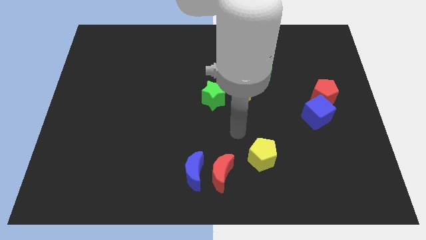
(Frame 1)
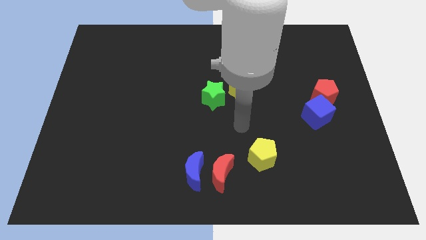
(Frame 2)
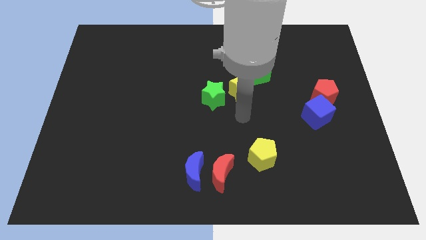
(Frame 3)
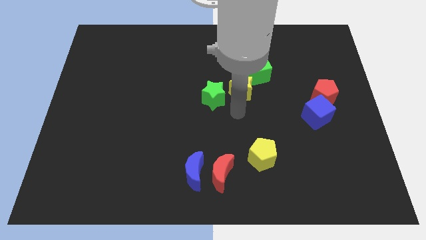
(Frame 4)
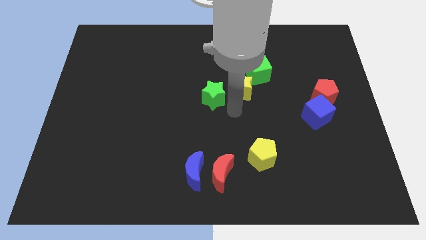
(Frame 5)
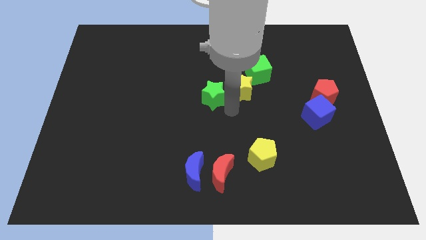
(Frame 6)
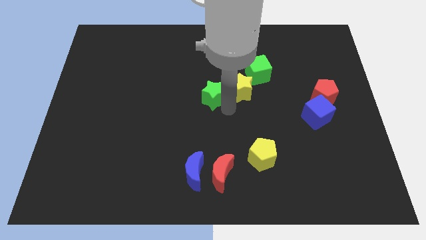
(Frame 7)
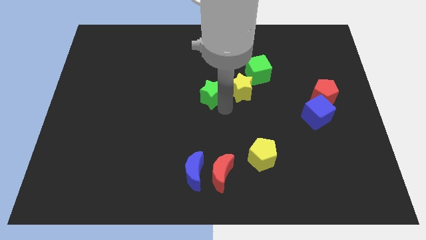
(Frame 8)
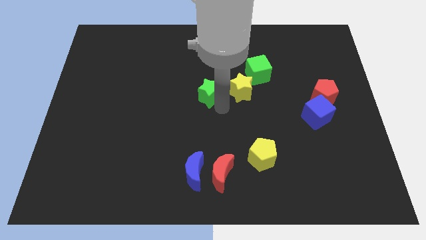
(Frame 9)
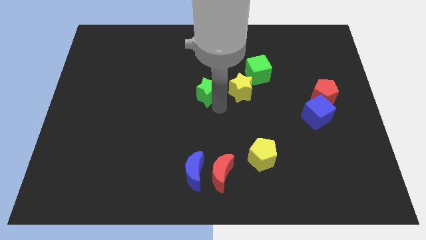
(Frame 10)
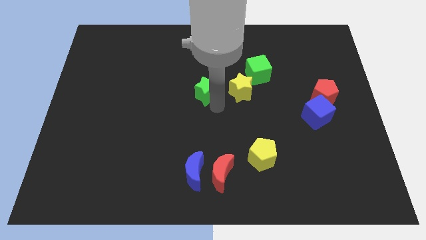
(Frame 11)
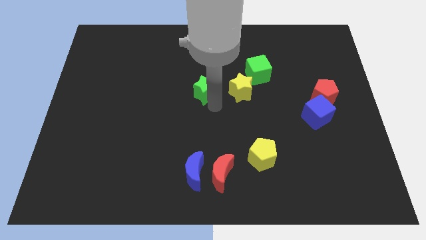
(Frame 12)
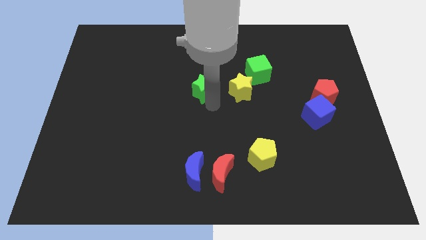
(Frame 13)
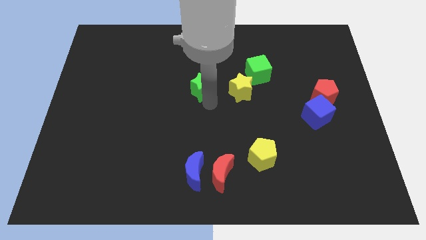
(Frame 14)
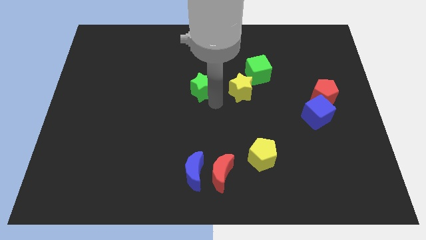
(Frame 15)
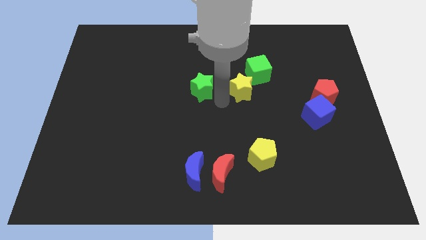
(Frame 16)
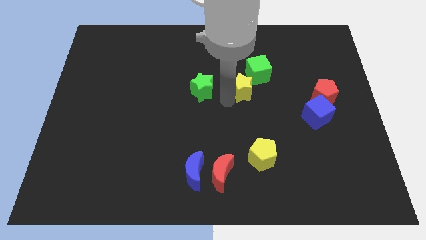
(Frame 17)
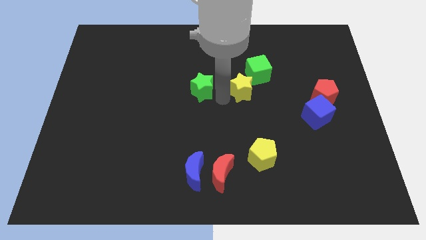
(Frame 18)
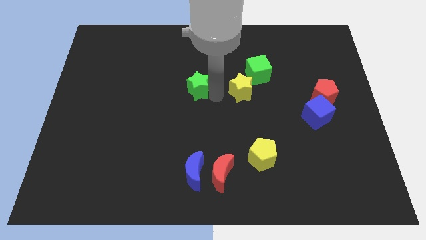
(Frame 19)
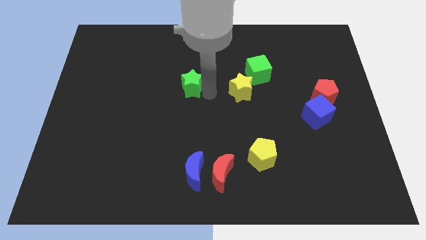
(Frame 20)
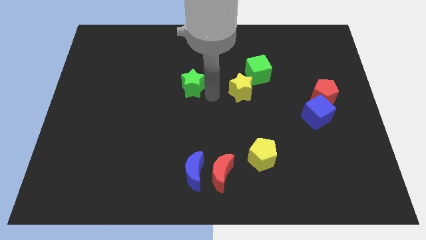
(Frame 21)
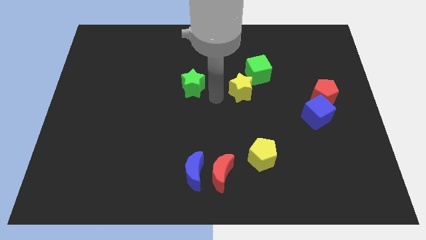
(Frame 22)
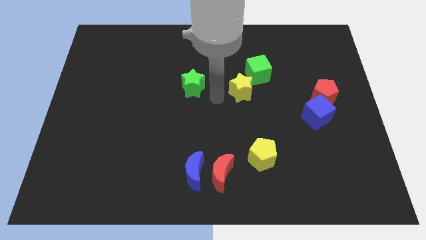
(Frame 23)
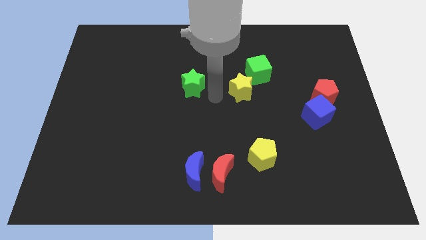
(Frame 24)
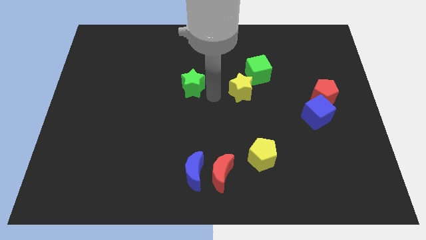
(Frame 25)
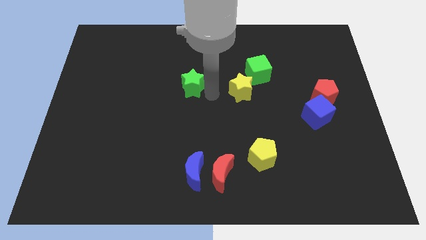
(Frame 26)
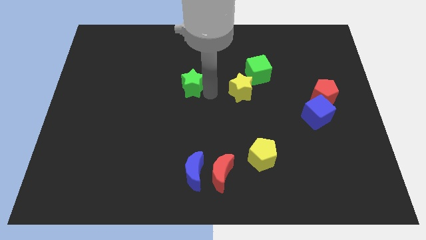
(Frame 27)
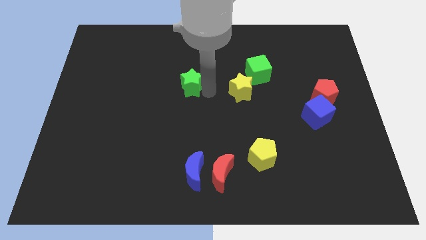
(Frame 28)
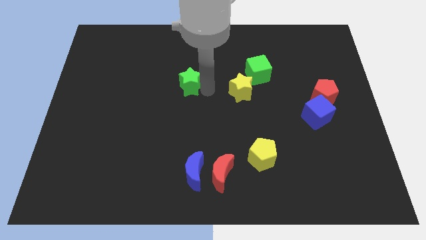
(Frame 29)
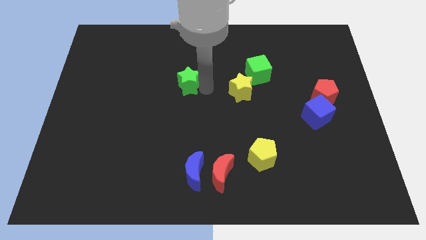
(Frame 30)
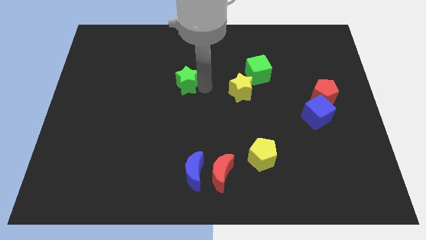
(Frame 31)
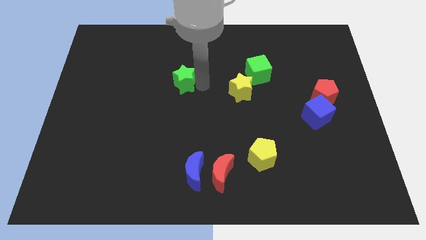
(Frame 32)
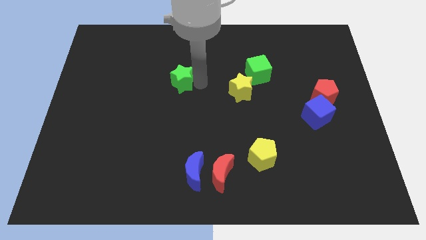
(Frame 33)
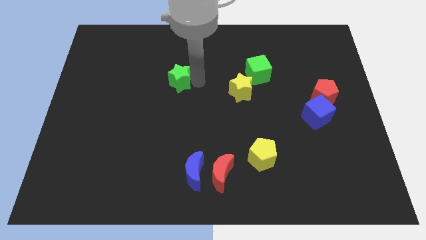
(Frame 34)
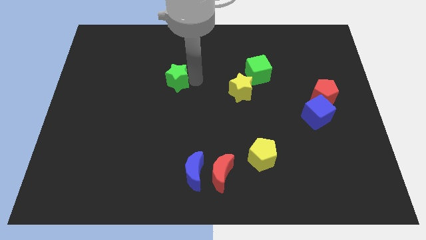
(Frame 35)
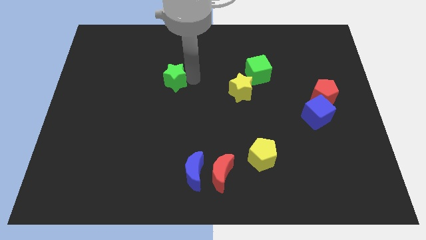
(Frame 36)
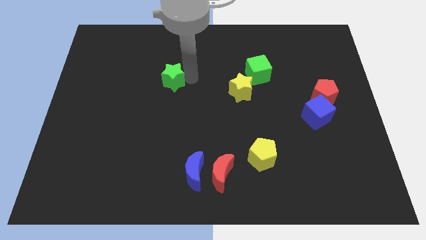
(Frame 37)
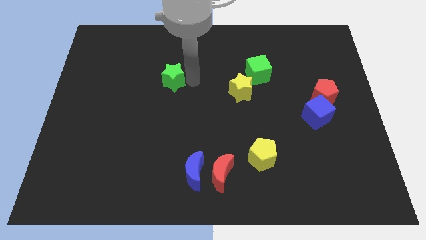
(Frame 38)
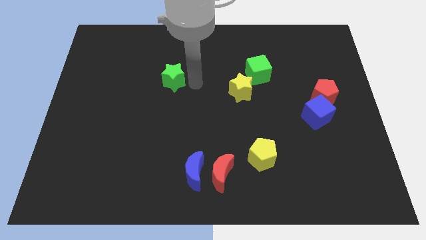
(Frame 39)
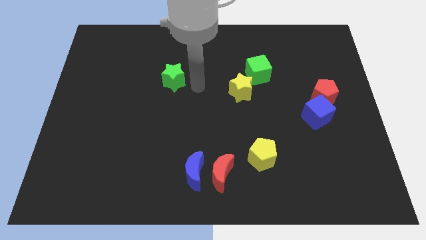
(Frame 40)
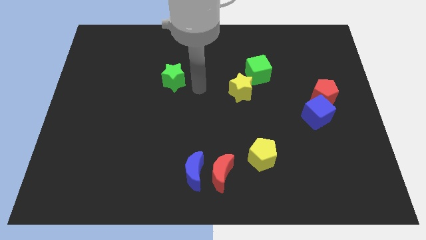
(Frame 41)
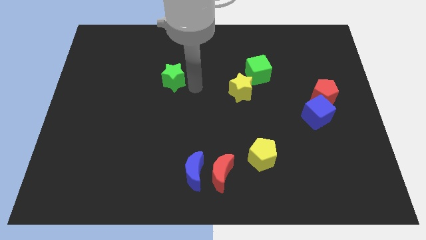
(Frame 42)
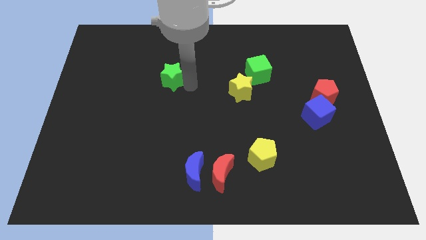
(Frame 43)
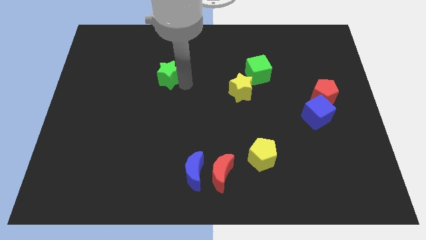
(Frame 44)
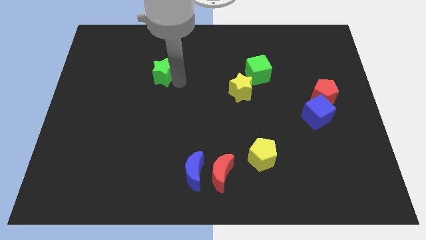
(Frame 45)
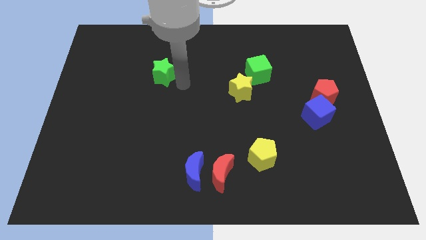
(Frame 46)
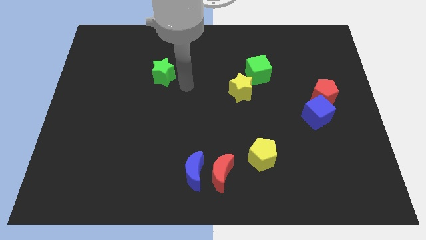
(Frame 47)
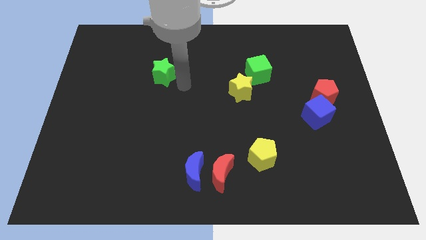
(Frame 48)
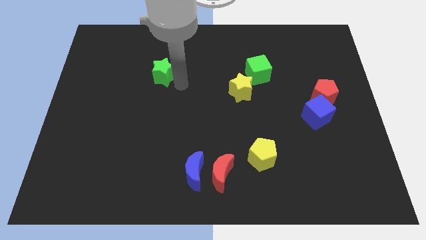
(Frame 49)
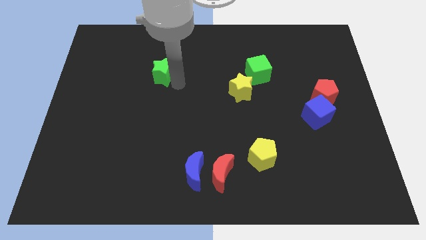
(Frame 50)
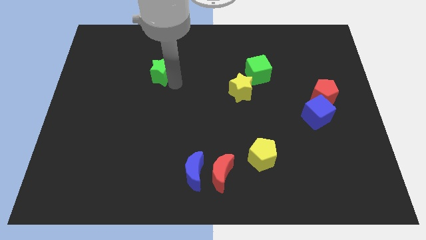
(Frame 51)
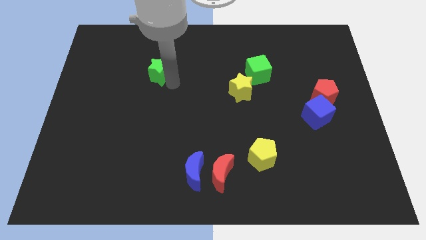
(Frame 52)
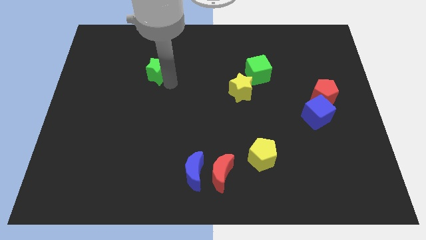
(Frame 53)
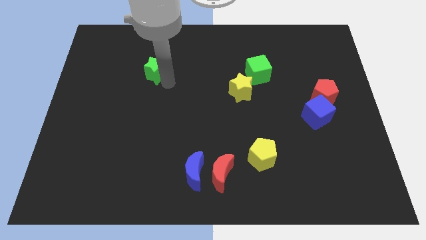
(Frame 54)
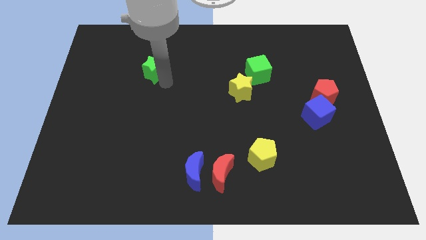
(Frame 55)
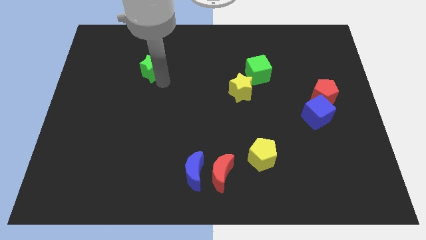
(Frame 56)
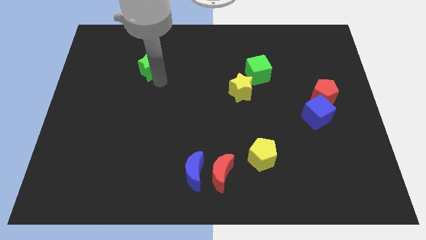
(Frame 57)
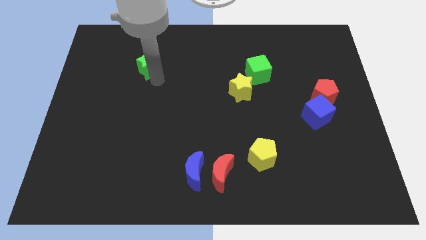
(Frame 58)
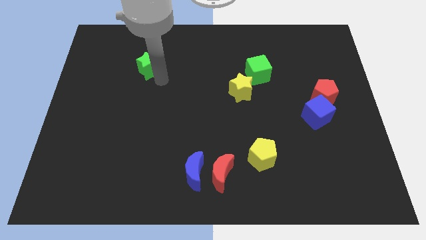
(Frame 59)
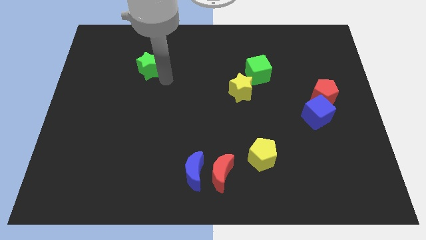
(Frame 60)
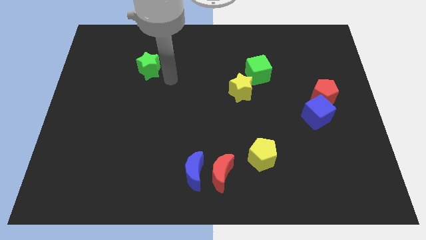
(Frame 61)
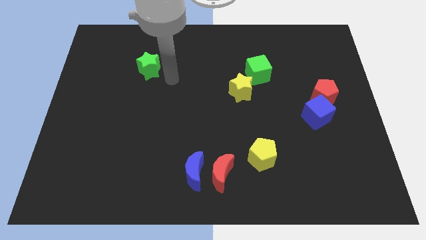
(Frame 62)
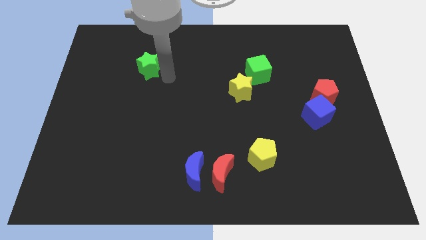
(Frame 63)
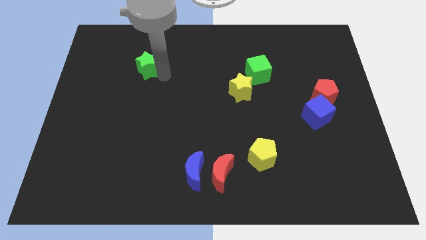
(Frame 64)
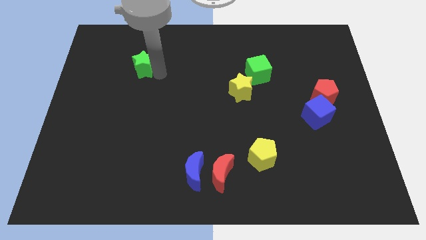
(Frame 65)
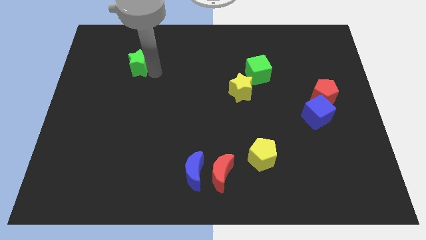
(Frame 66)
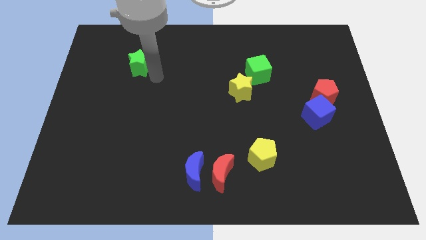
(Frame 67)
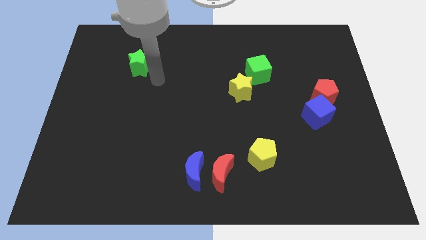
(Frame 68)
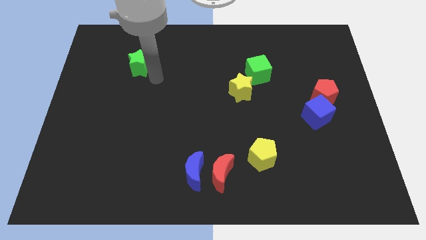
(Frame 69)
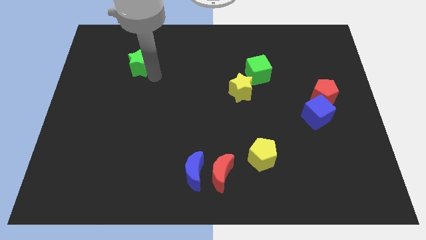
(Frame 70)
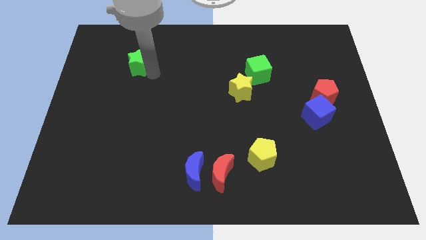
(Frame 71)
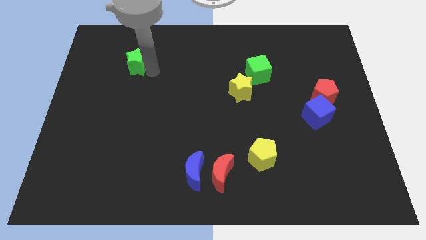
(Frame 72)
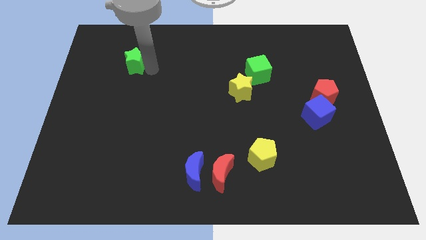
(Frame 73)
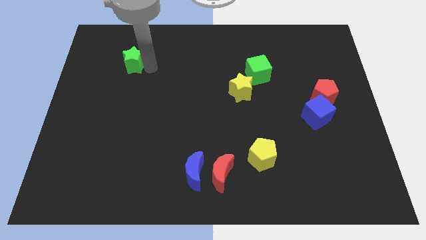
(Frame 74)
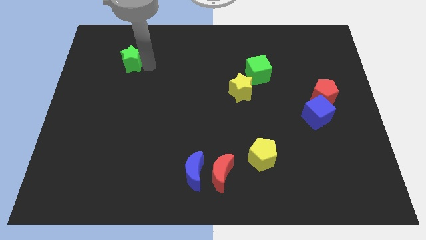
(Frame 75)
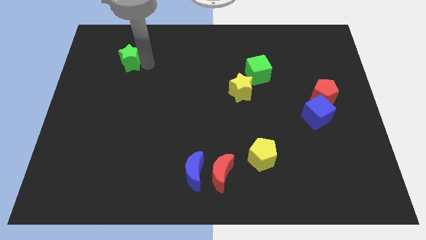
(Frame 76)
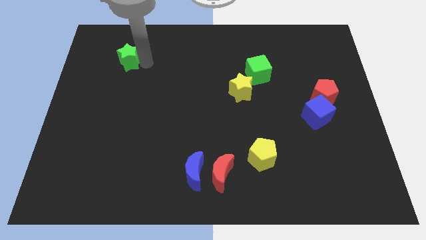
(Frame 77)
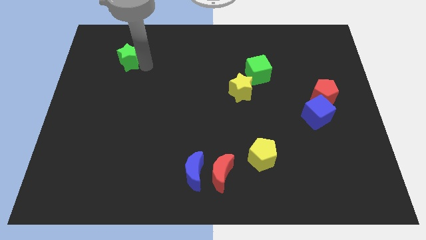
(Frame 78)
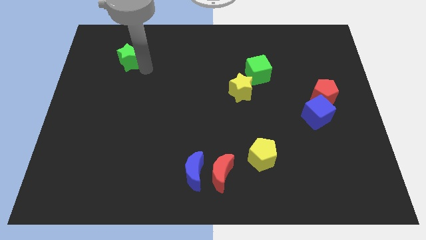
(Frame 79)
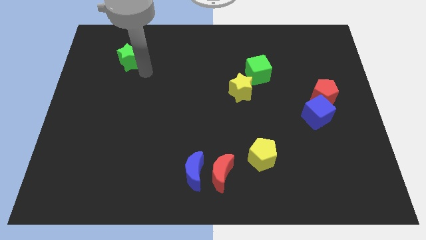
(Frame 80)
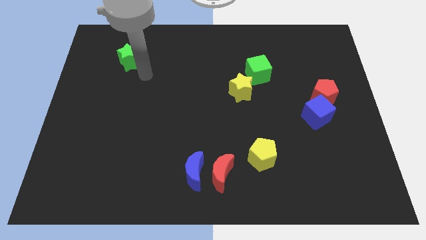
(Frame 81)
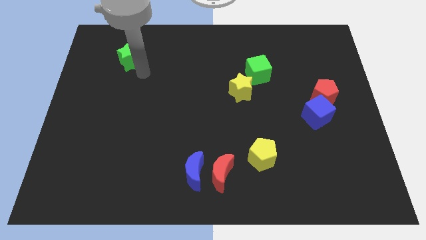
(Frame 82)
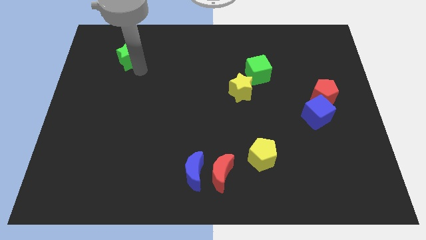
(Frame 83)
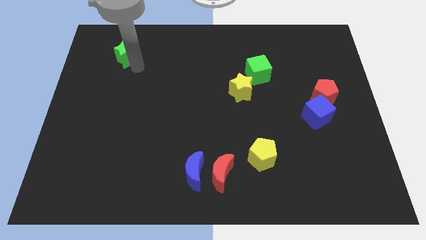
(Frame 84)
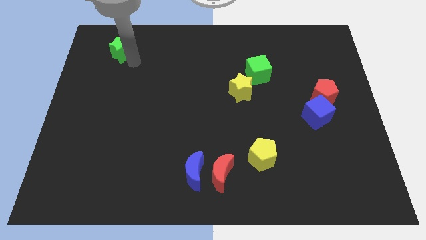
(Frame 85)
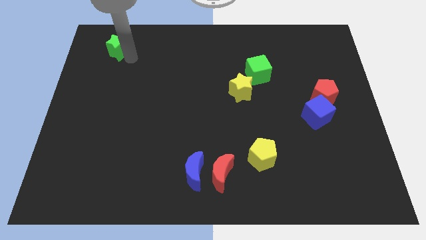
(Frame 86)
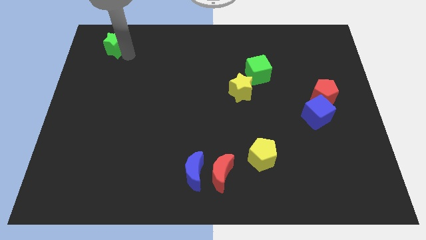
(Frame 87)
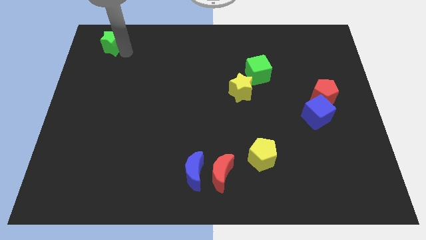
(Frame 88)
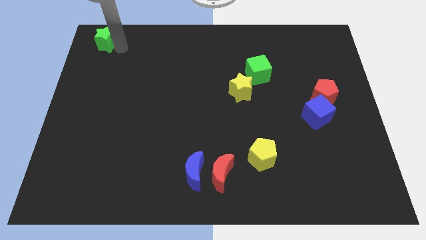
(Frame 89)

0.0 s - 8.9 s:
push the green star to the upper left corner
